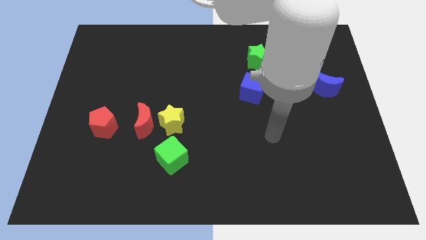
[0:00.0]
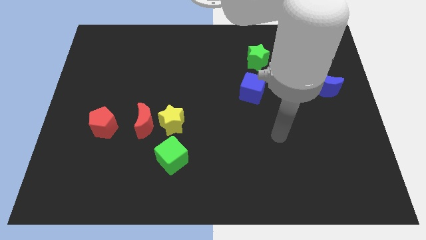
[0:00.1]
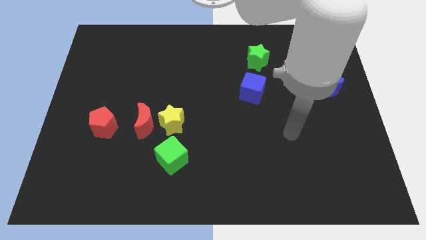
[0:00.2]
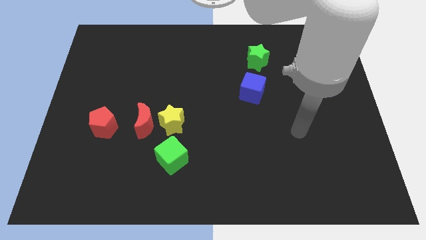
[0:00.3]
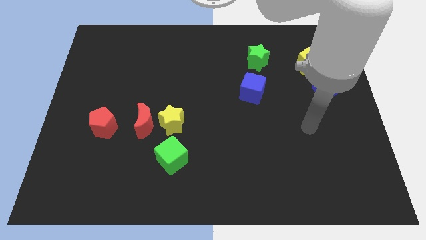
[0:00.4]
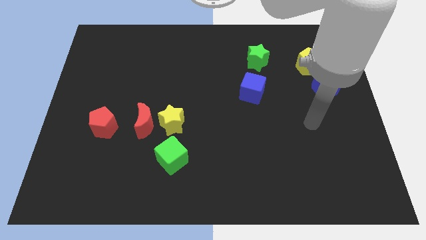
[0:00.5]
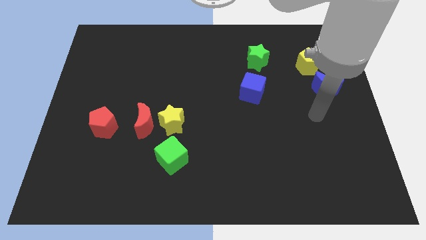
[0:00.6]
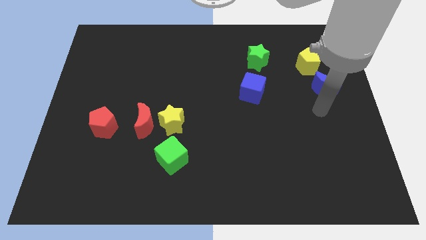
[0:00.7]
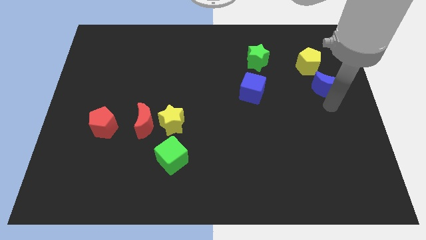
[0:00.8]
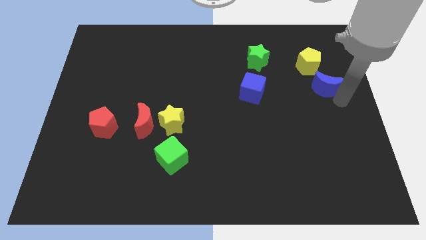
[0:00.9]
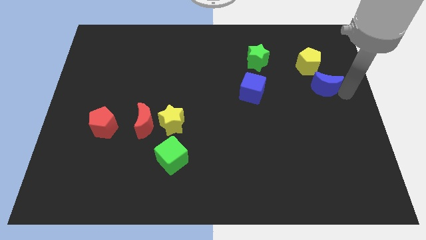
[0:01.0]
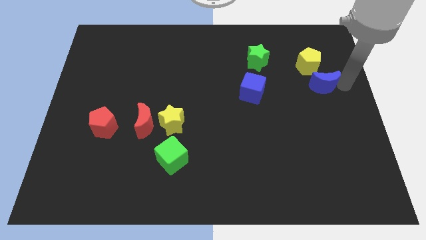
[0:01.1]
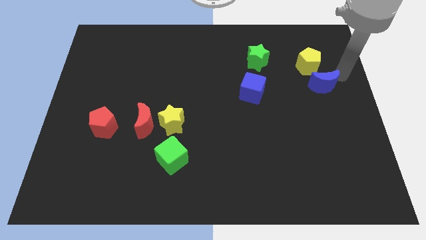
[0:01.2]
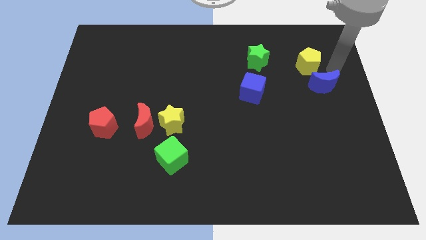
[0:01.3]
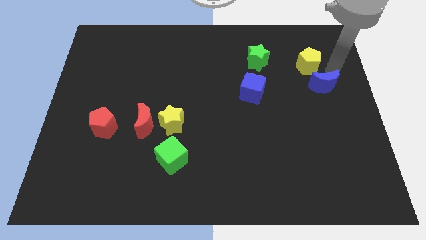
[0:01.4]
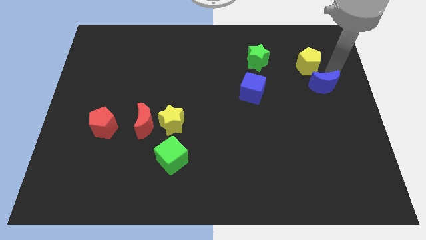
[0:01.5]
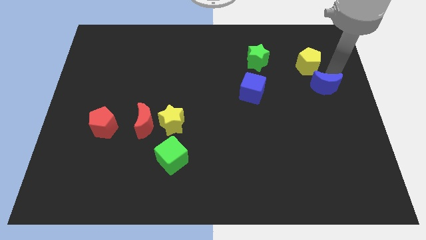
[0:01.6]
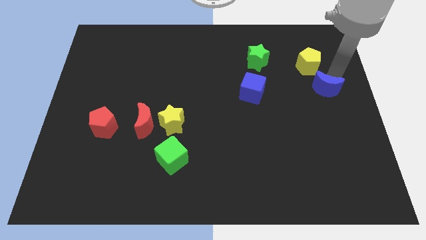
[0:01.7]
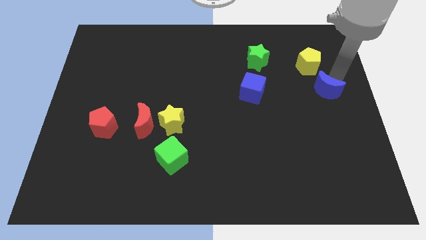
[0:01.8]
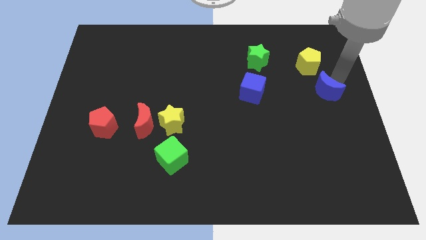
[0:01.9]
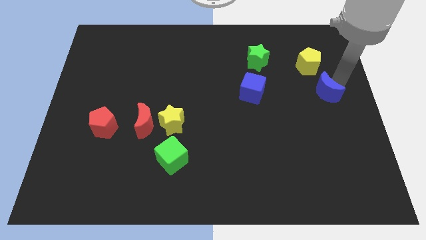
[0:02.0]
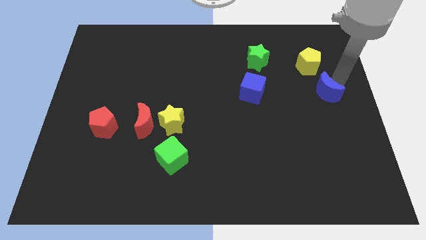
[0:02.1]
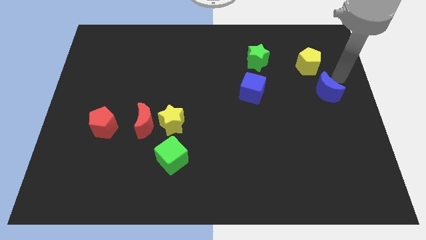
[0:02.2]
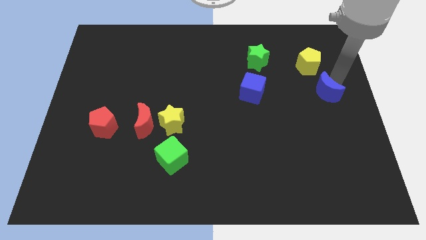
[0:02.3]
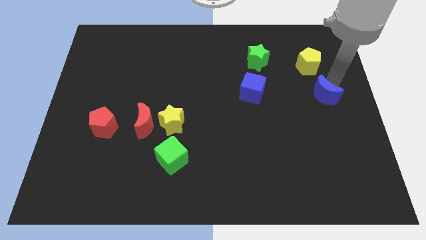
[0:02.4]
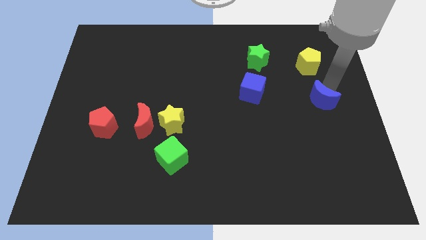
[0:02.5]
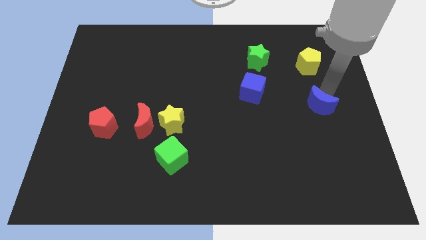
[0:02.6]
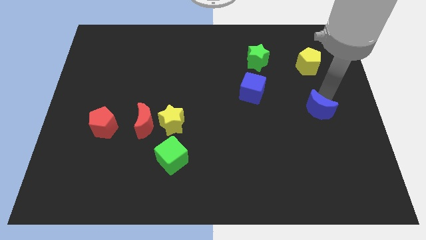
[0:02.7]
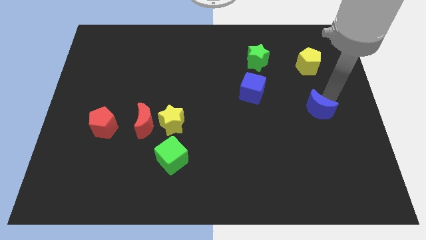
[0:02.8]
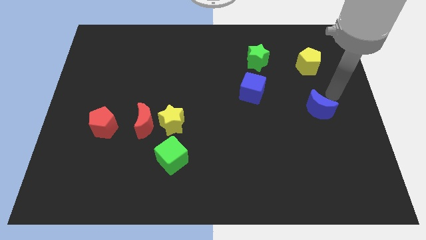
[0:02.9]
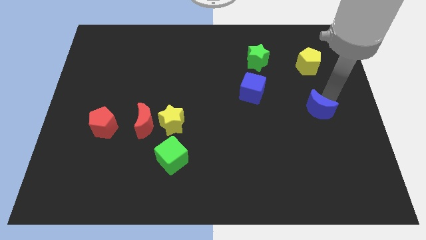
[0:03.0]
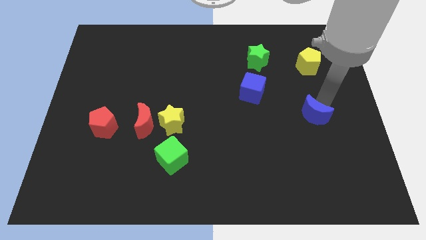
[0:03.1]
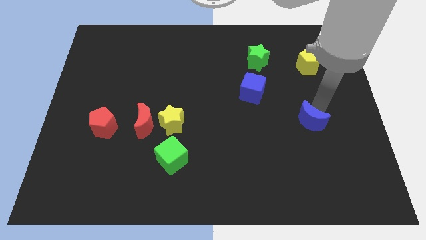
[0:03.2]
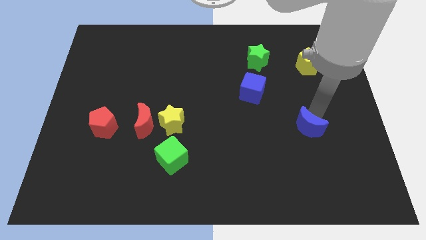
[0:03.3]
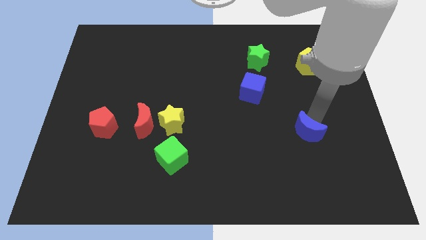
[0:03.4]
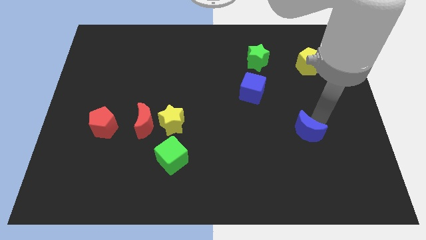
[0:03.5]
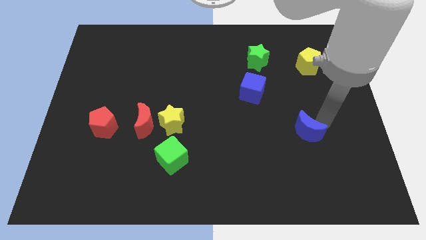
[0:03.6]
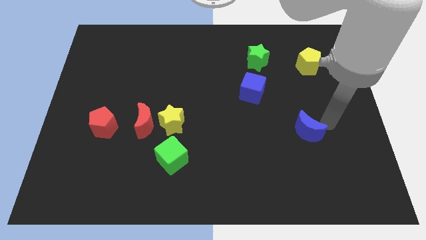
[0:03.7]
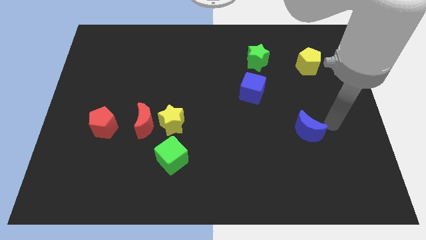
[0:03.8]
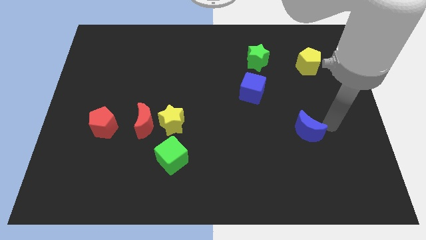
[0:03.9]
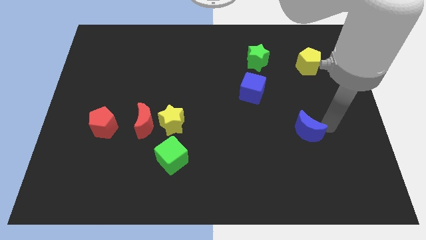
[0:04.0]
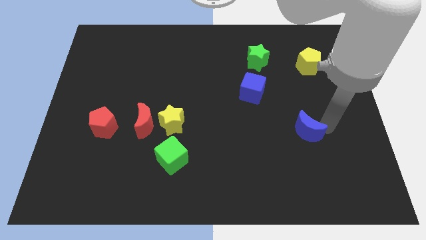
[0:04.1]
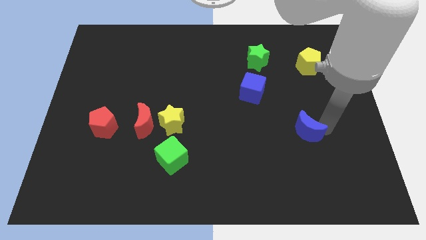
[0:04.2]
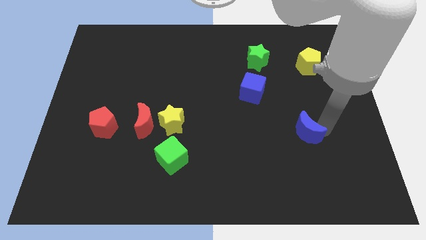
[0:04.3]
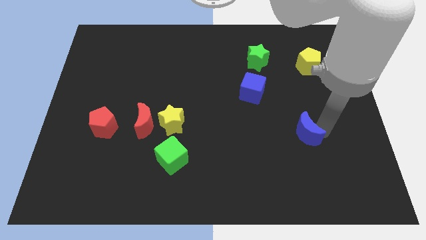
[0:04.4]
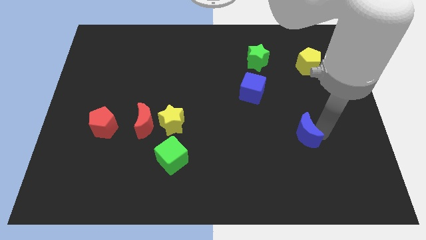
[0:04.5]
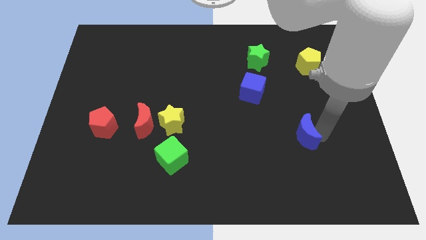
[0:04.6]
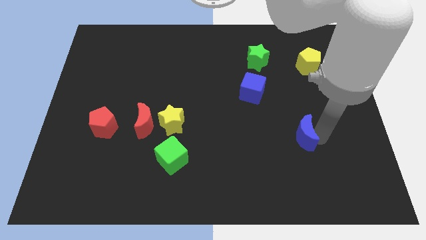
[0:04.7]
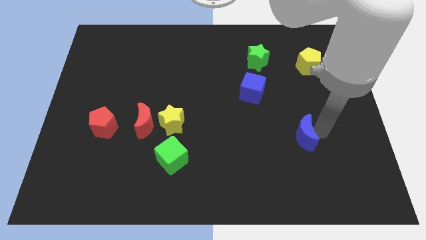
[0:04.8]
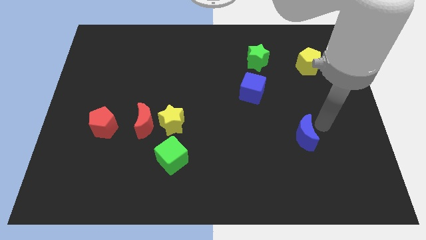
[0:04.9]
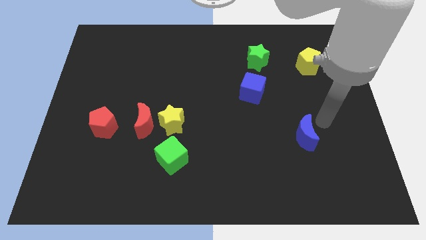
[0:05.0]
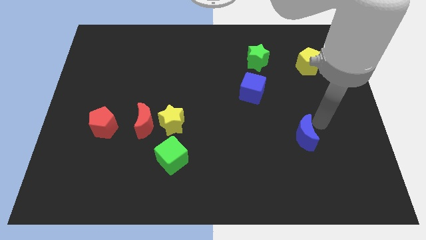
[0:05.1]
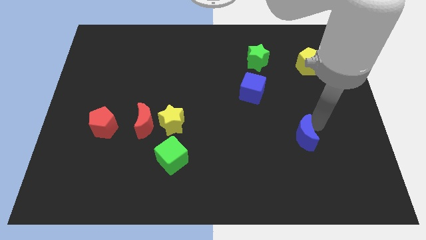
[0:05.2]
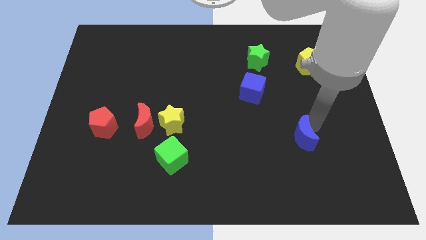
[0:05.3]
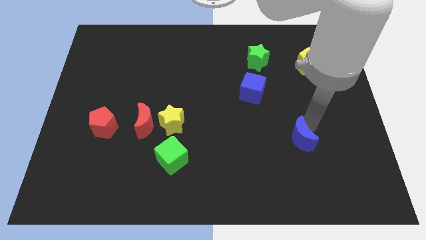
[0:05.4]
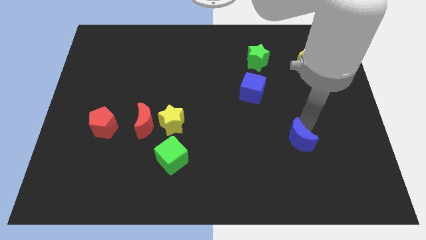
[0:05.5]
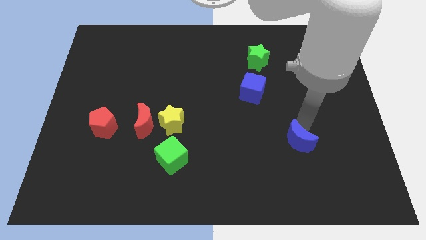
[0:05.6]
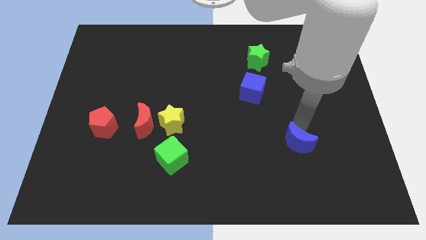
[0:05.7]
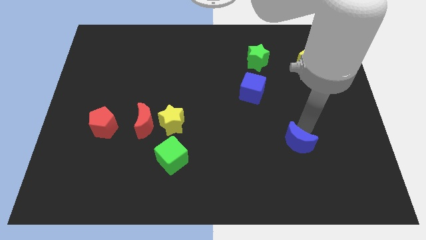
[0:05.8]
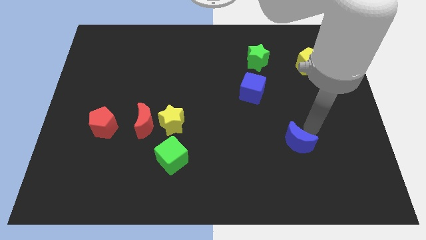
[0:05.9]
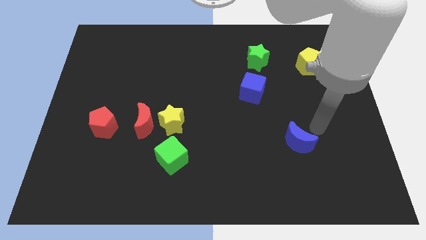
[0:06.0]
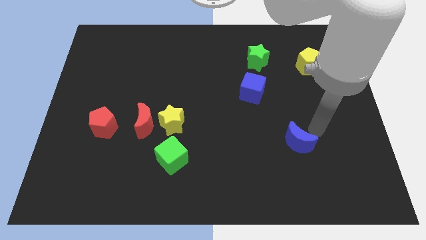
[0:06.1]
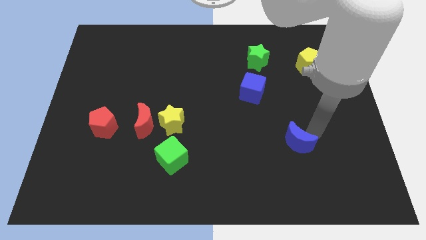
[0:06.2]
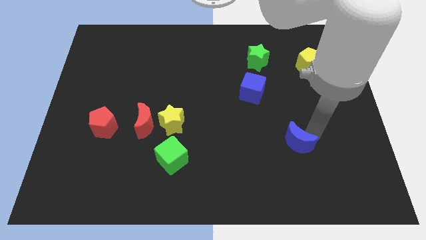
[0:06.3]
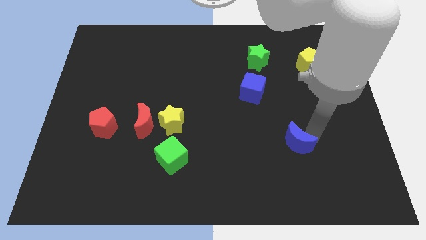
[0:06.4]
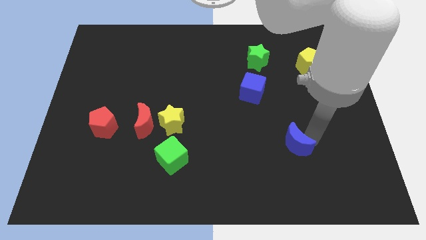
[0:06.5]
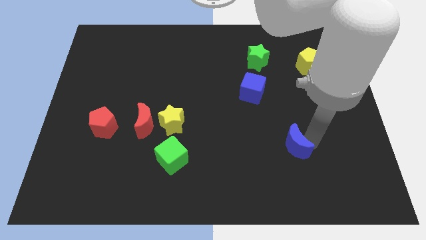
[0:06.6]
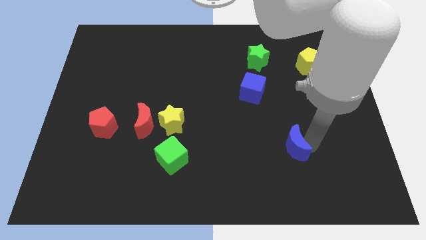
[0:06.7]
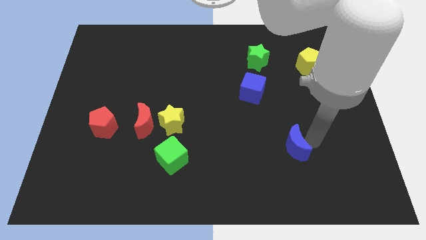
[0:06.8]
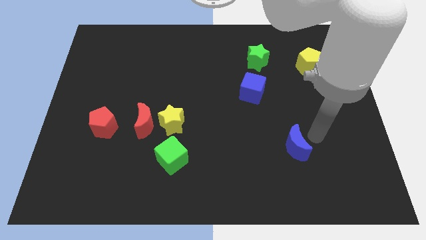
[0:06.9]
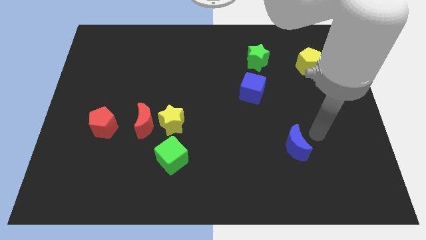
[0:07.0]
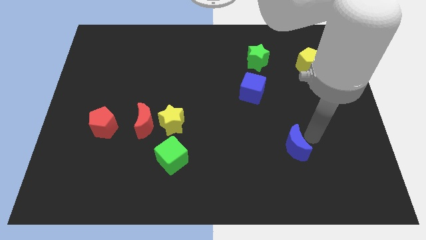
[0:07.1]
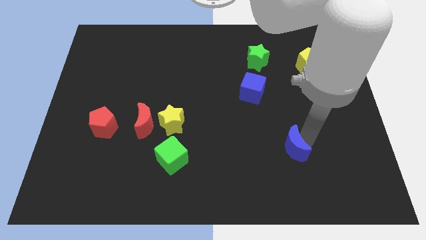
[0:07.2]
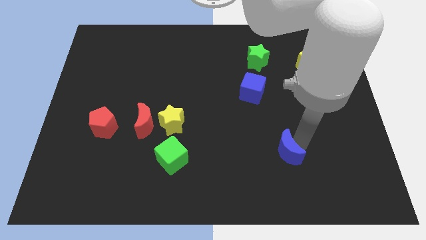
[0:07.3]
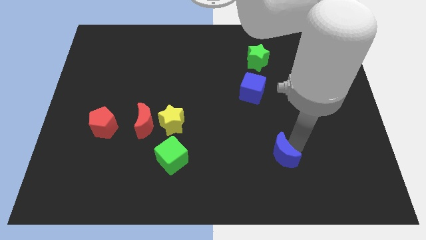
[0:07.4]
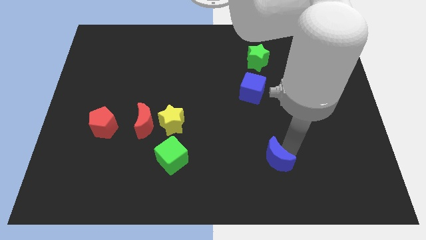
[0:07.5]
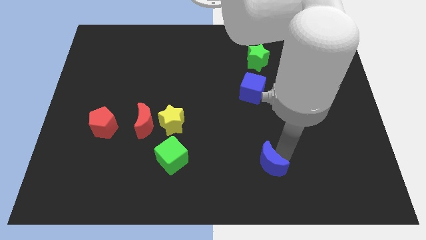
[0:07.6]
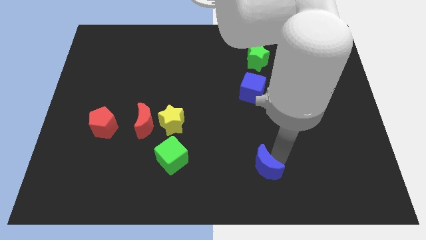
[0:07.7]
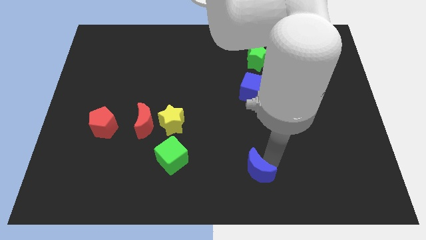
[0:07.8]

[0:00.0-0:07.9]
slide the blue moon to the bottom side
